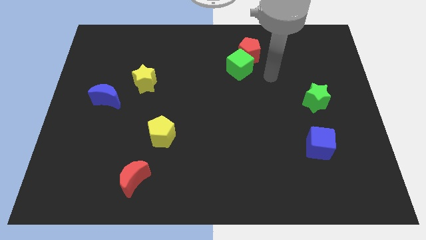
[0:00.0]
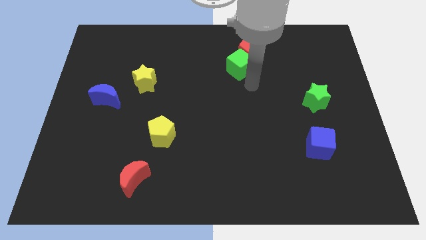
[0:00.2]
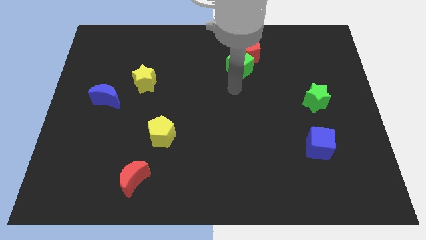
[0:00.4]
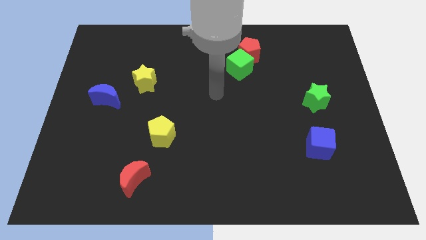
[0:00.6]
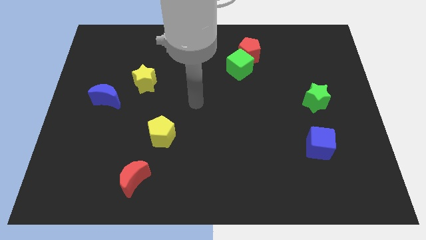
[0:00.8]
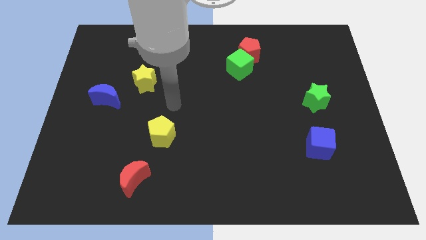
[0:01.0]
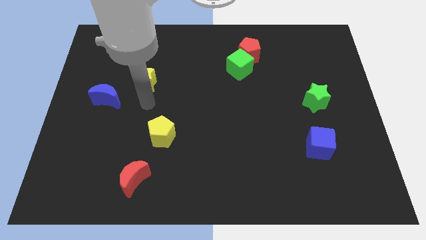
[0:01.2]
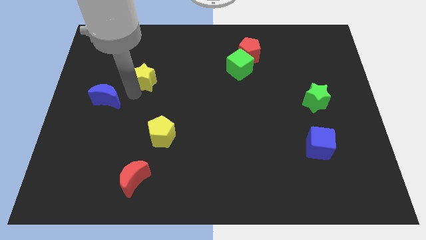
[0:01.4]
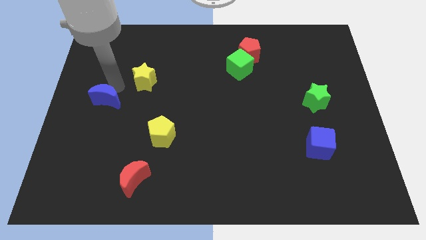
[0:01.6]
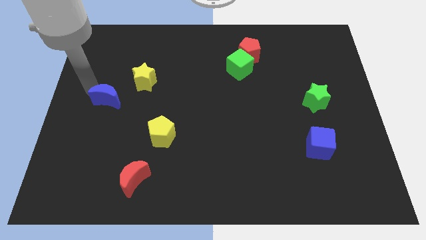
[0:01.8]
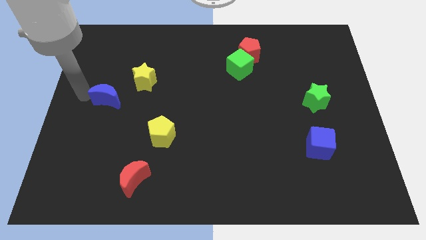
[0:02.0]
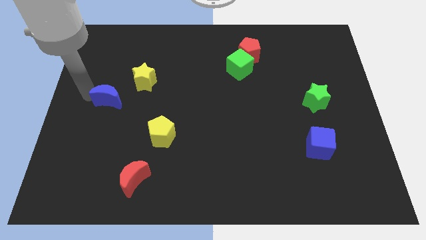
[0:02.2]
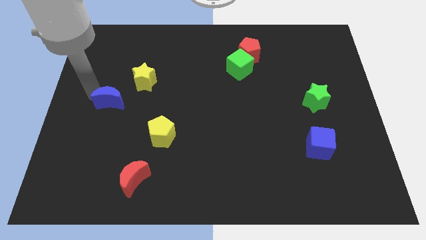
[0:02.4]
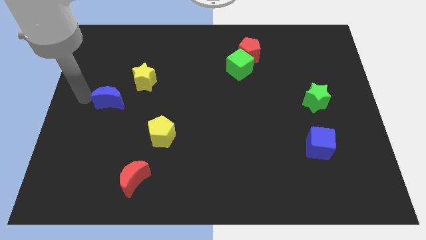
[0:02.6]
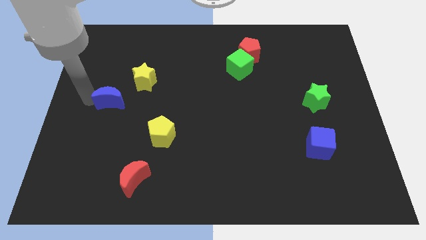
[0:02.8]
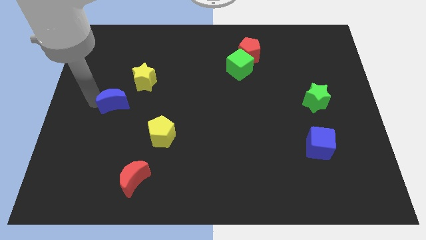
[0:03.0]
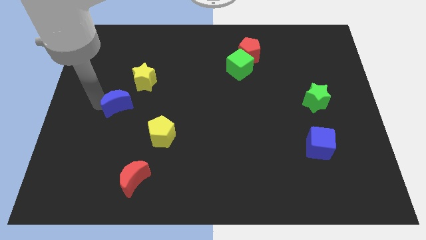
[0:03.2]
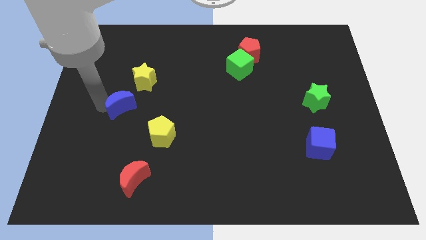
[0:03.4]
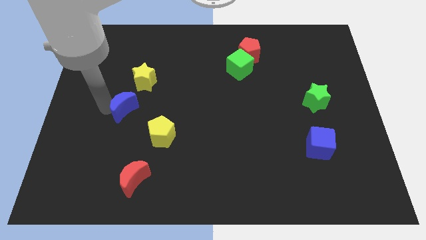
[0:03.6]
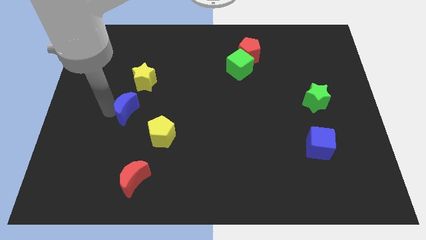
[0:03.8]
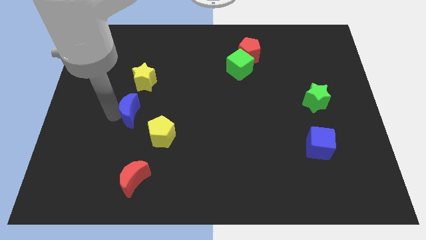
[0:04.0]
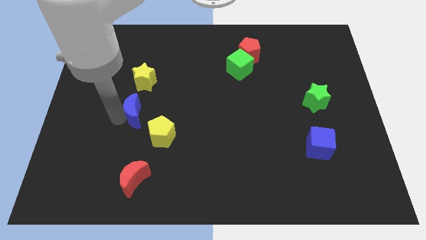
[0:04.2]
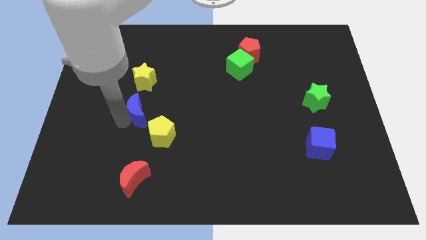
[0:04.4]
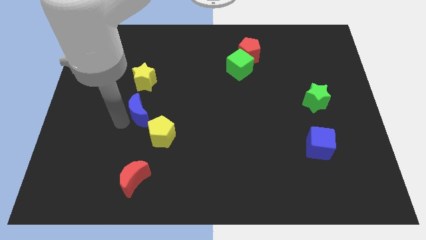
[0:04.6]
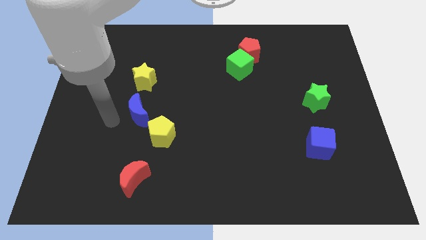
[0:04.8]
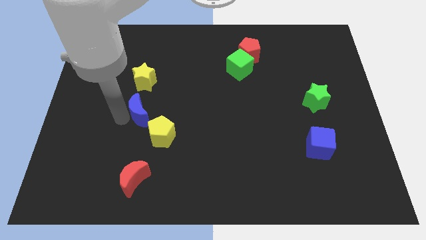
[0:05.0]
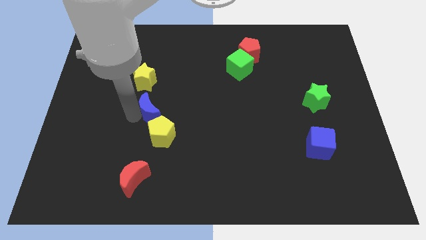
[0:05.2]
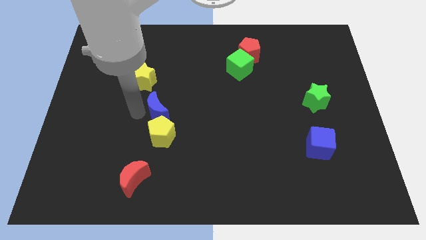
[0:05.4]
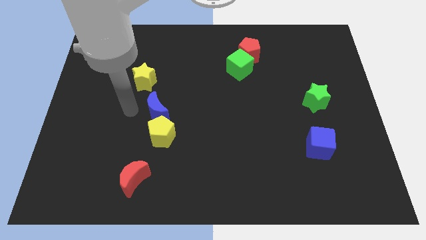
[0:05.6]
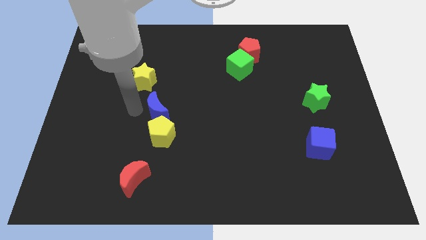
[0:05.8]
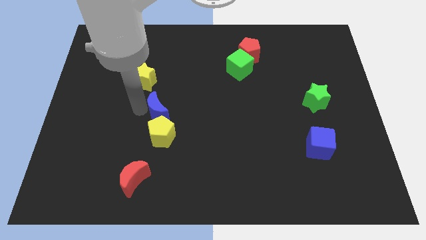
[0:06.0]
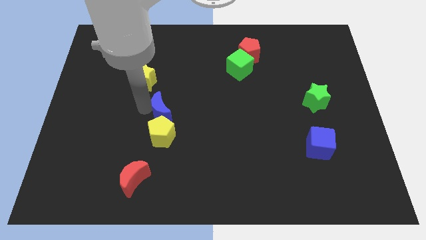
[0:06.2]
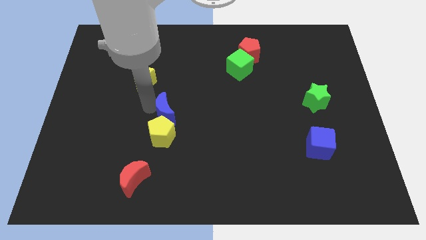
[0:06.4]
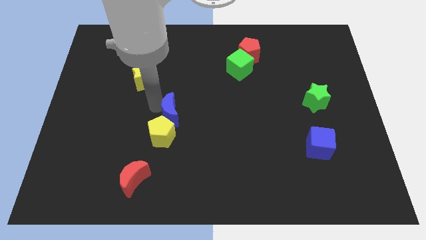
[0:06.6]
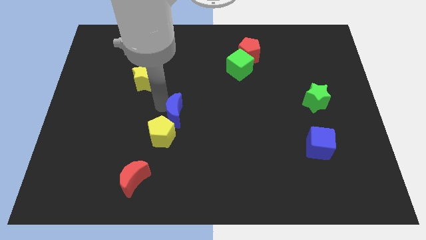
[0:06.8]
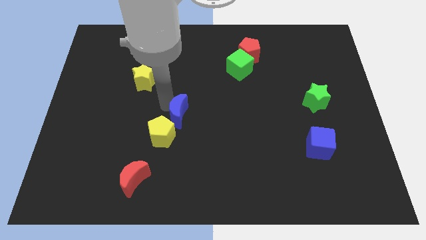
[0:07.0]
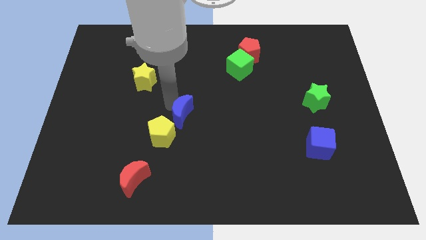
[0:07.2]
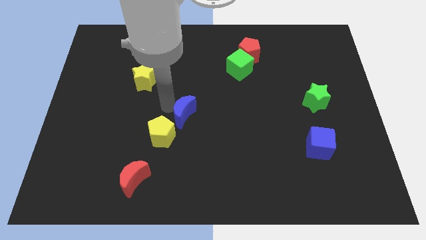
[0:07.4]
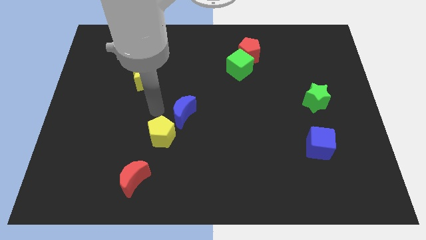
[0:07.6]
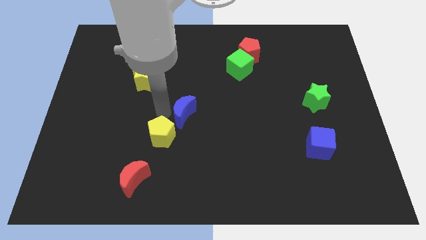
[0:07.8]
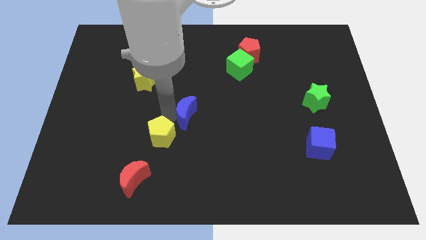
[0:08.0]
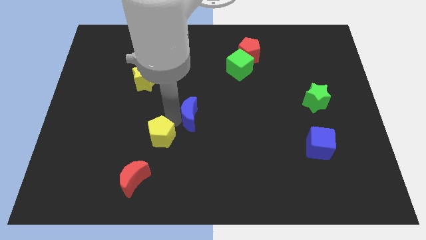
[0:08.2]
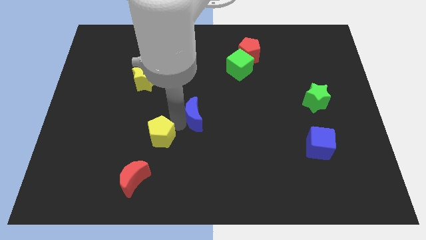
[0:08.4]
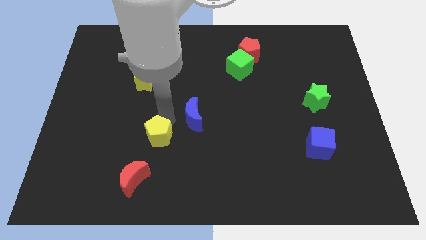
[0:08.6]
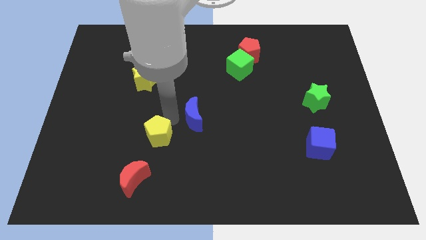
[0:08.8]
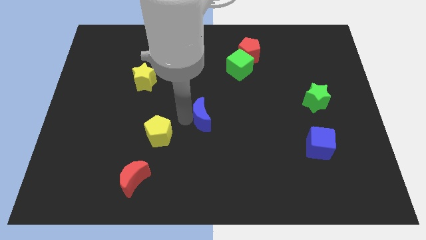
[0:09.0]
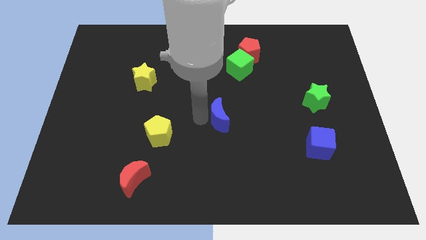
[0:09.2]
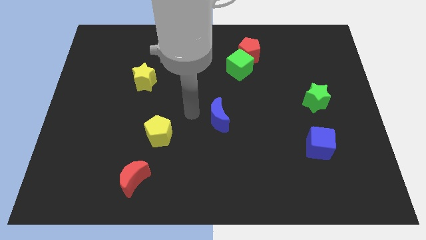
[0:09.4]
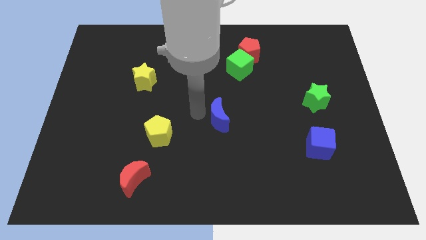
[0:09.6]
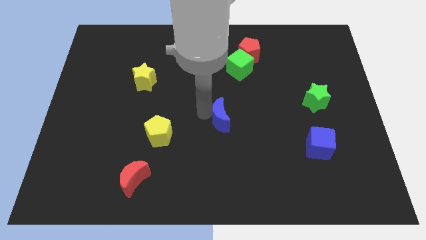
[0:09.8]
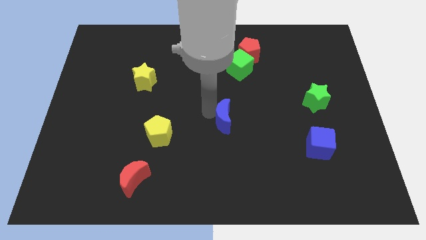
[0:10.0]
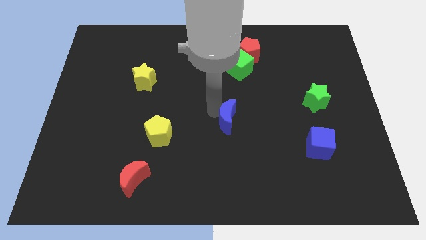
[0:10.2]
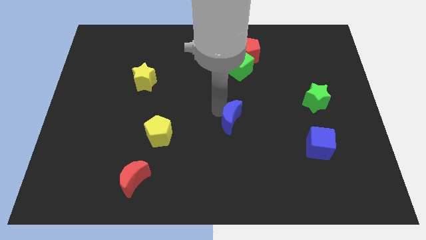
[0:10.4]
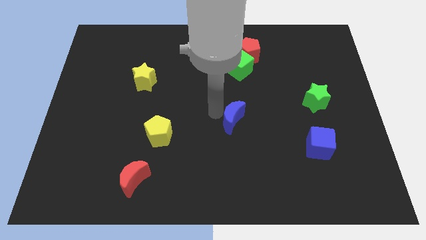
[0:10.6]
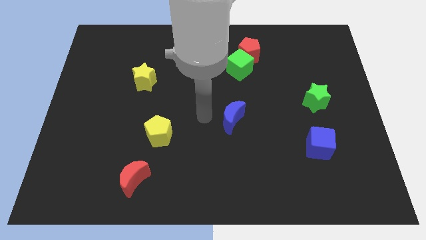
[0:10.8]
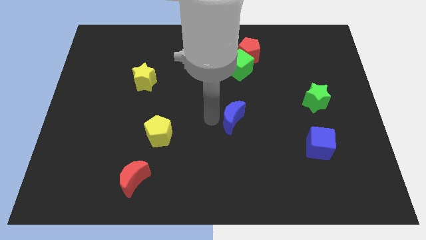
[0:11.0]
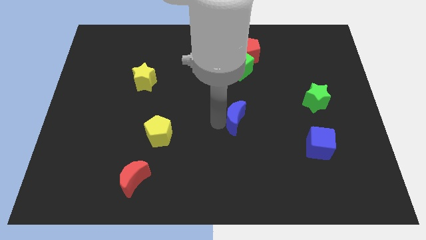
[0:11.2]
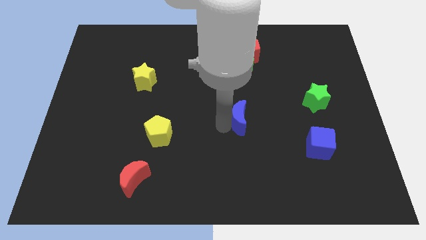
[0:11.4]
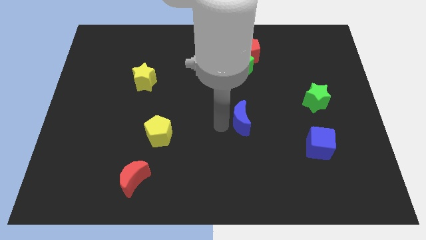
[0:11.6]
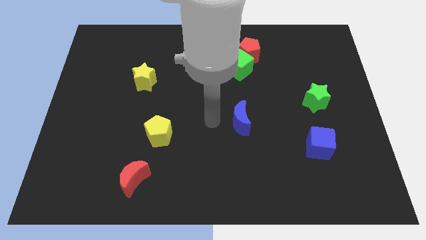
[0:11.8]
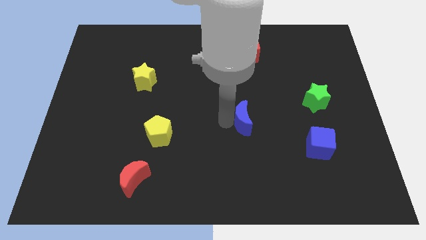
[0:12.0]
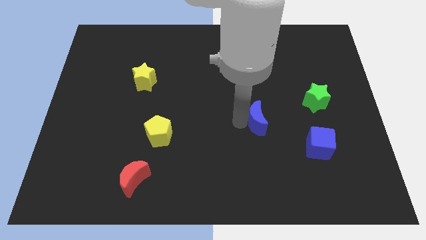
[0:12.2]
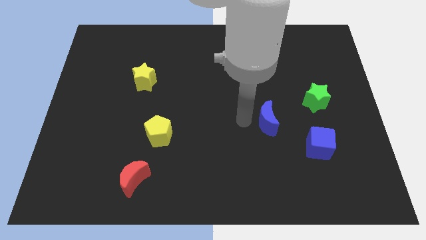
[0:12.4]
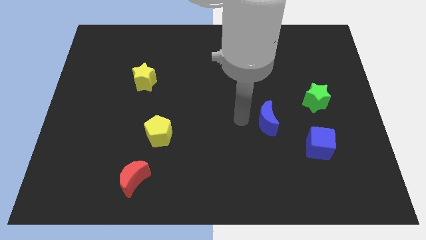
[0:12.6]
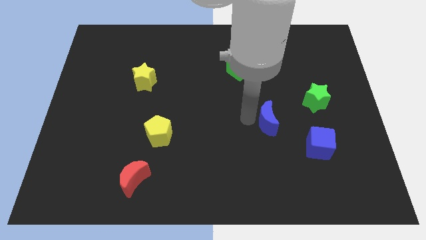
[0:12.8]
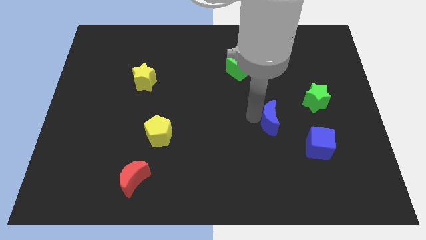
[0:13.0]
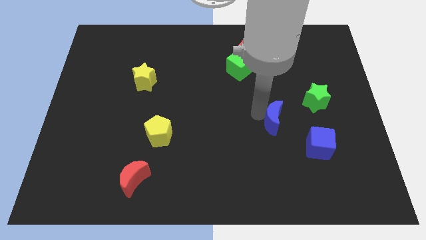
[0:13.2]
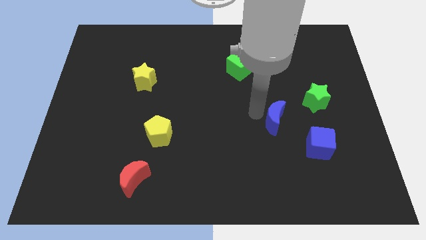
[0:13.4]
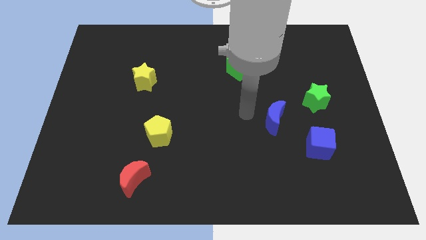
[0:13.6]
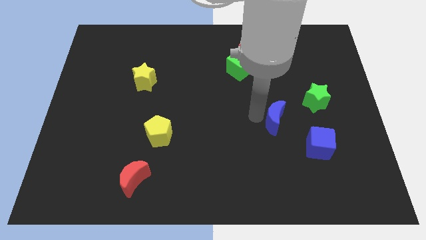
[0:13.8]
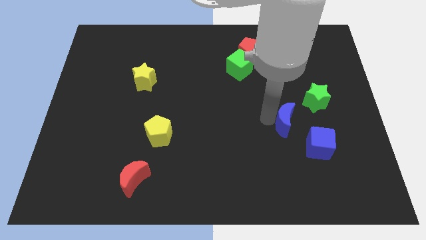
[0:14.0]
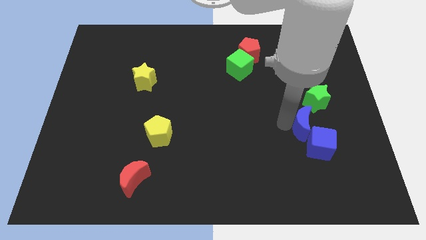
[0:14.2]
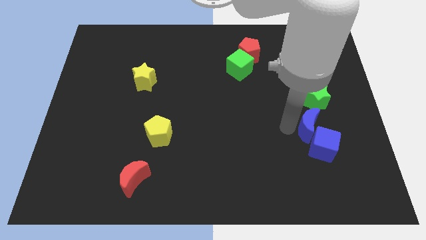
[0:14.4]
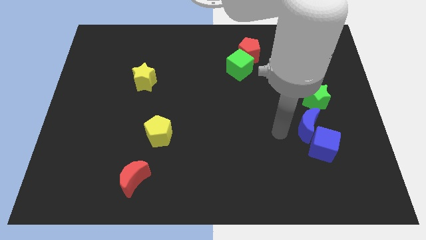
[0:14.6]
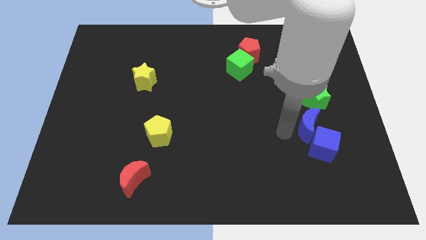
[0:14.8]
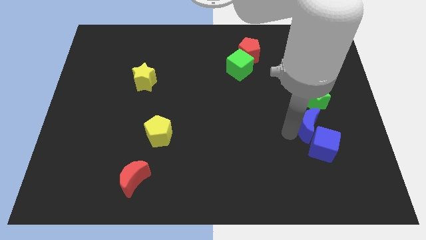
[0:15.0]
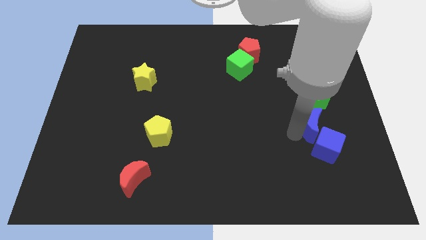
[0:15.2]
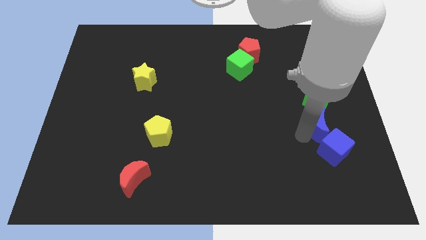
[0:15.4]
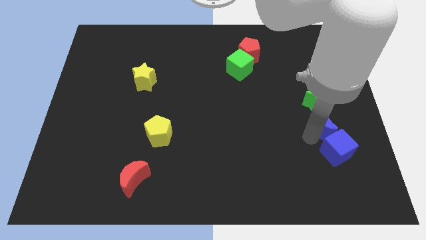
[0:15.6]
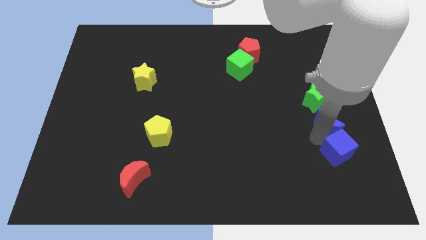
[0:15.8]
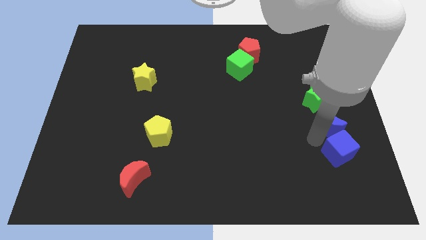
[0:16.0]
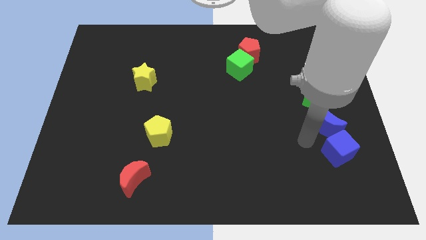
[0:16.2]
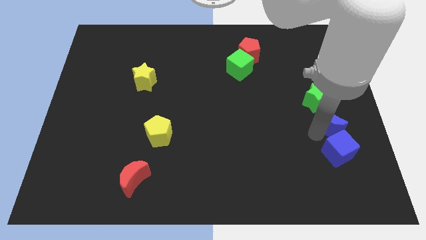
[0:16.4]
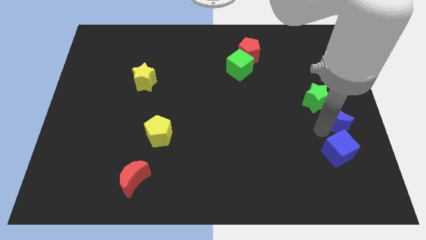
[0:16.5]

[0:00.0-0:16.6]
slide the blue moon to the center right
